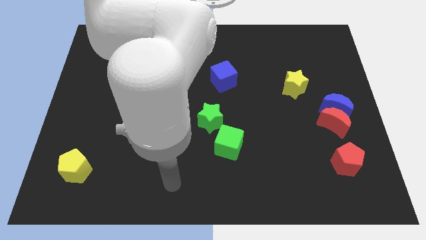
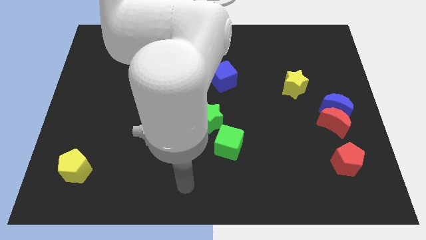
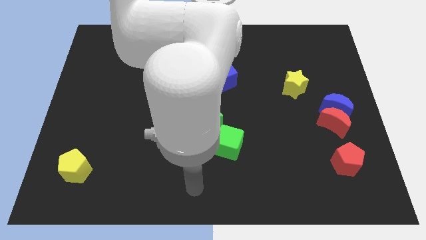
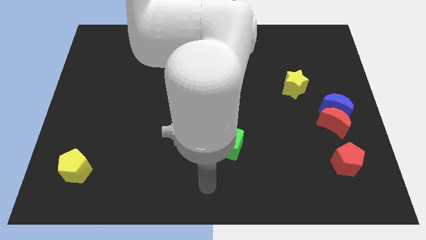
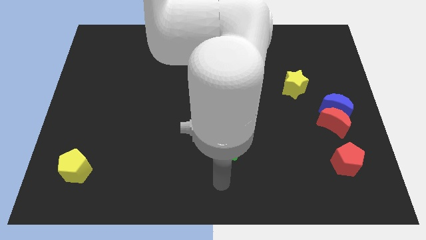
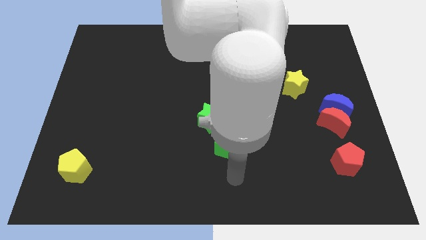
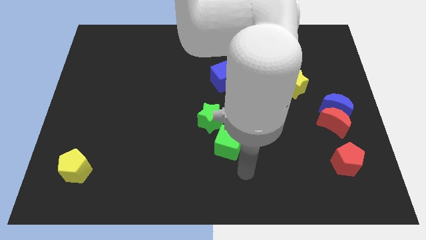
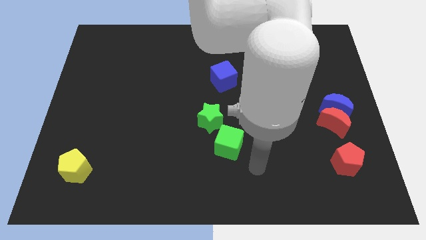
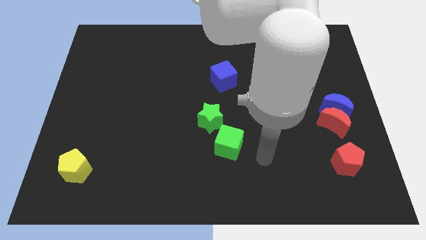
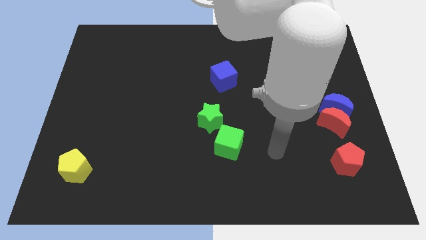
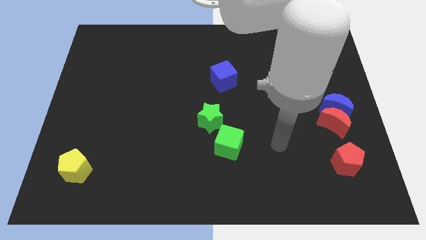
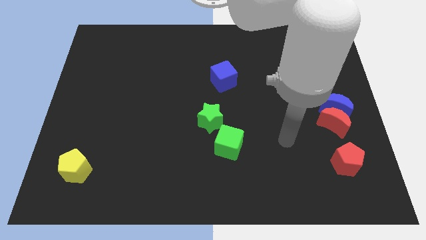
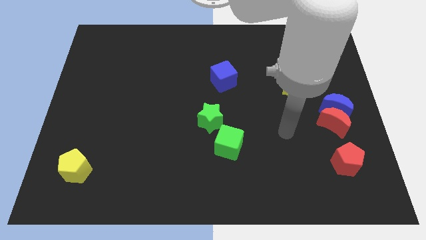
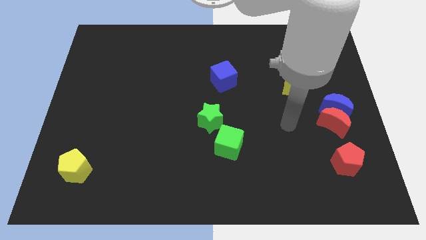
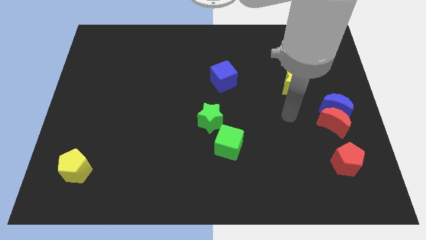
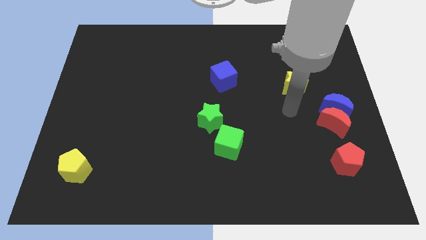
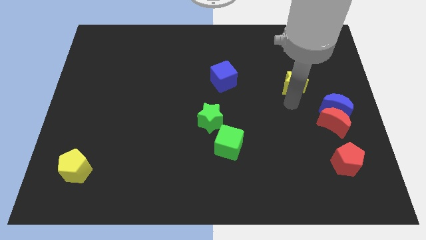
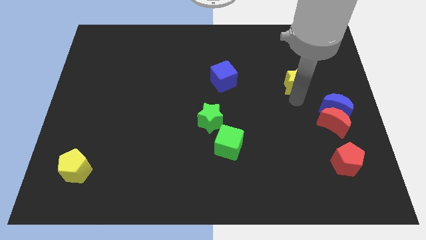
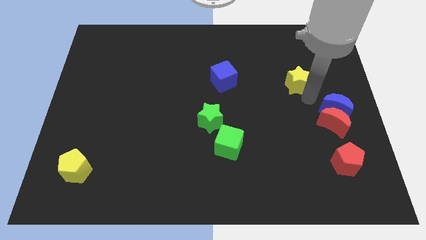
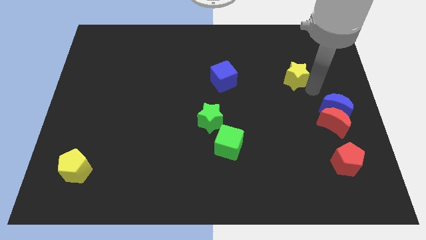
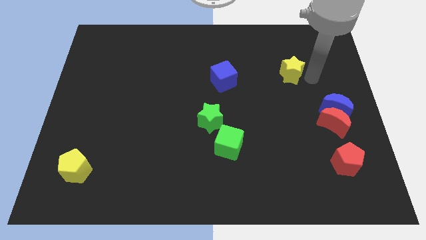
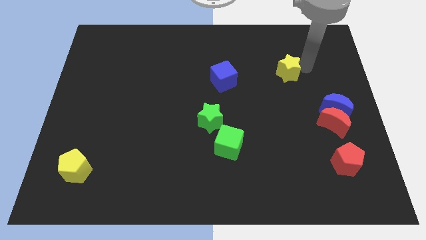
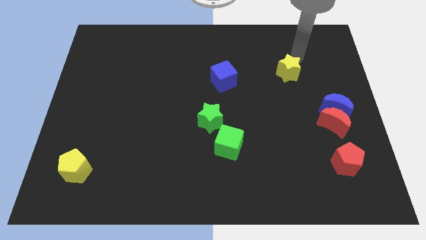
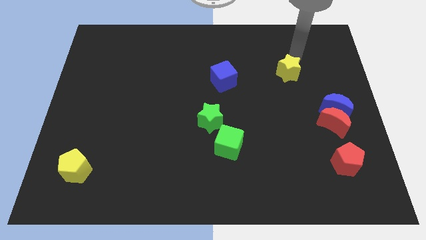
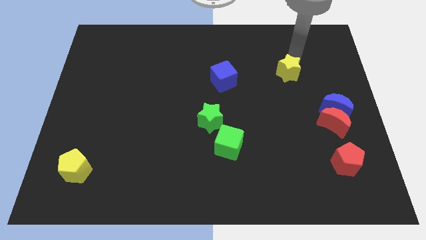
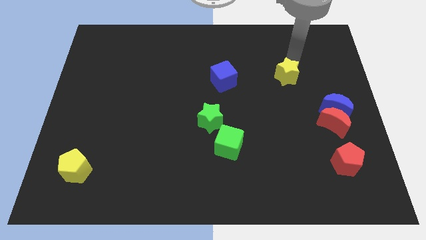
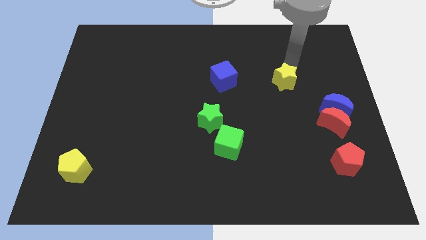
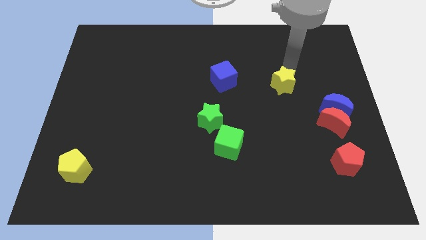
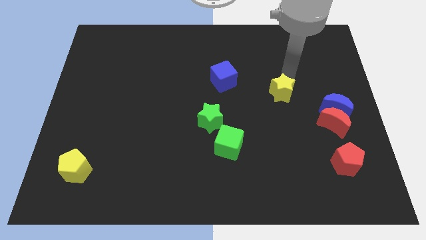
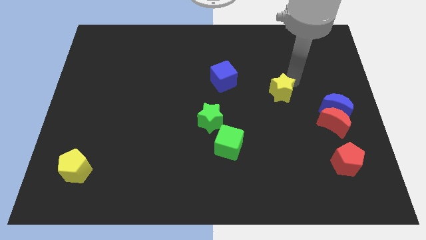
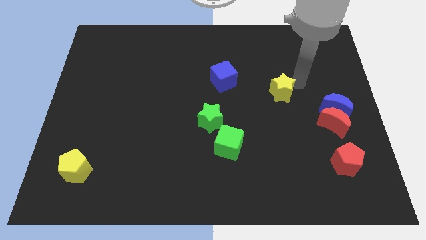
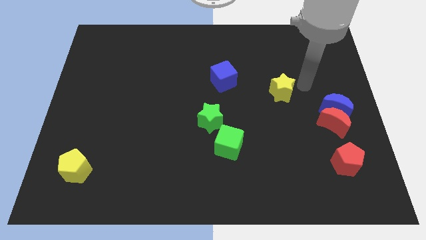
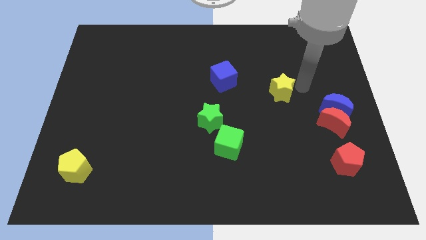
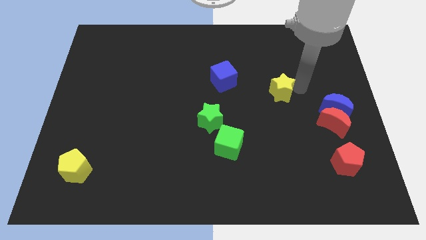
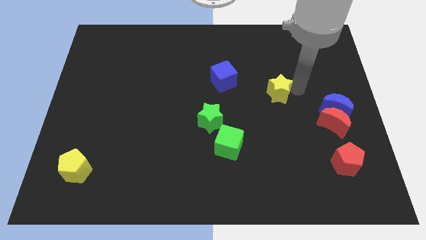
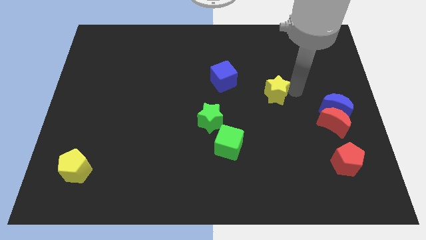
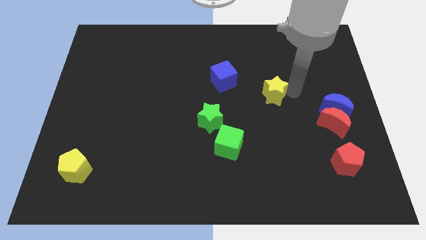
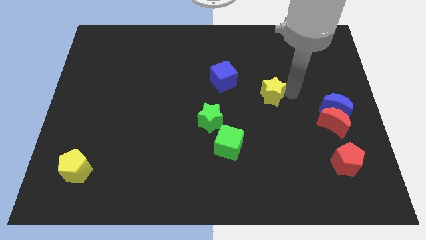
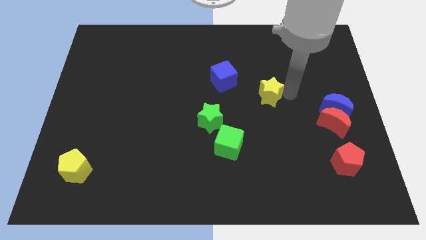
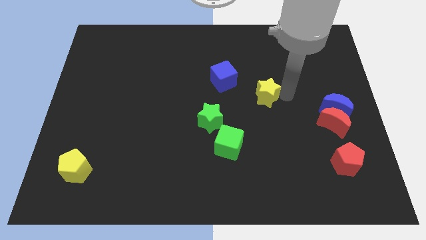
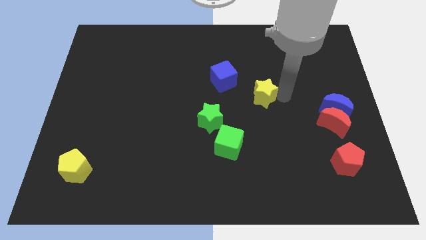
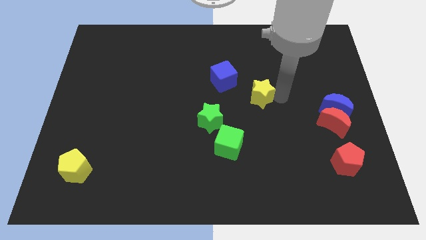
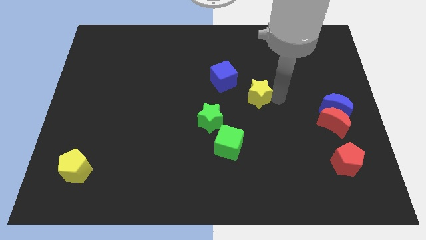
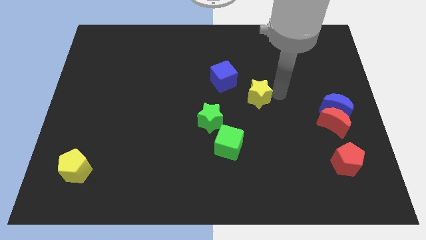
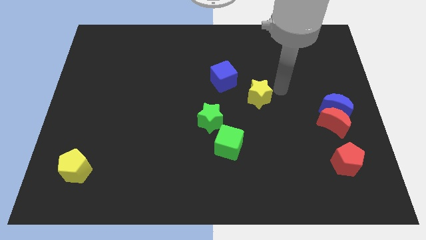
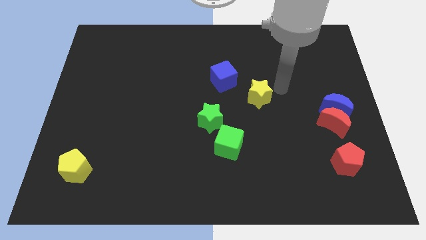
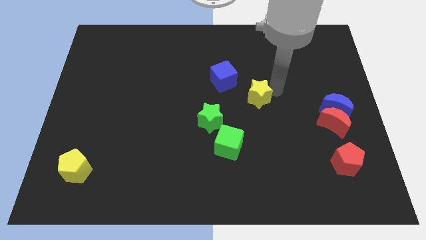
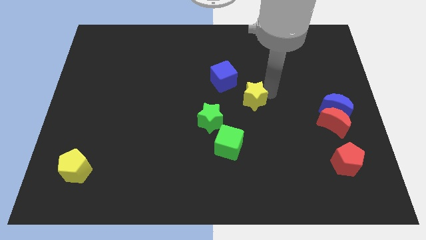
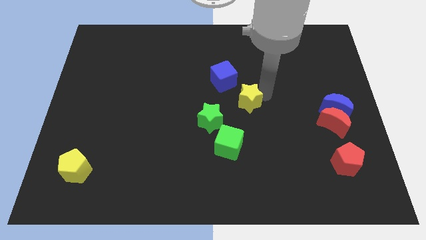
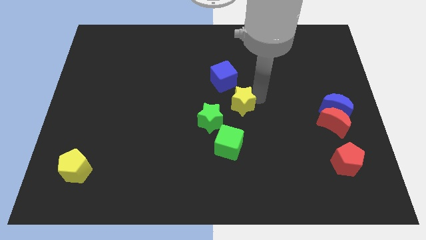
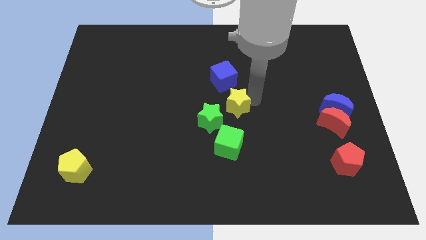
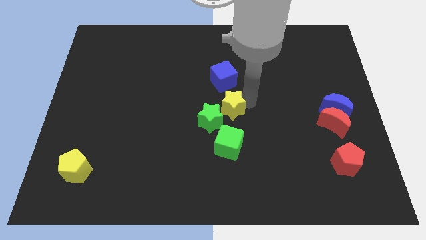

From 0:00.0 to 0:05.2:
push the yellow star close to the green star

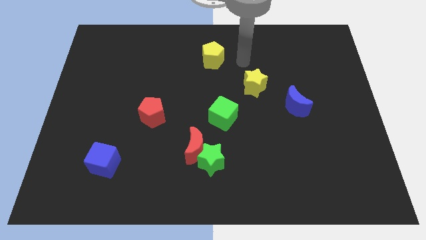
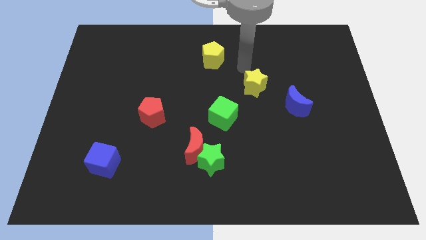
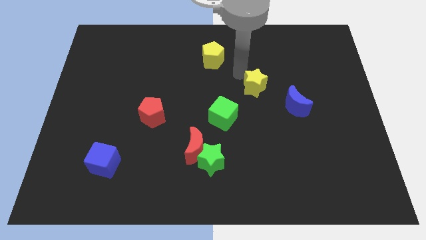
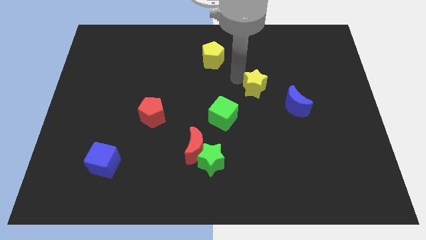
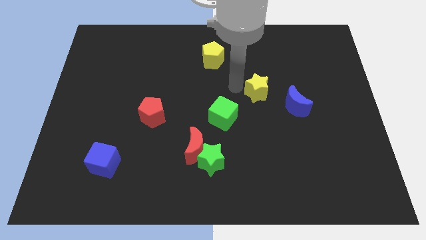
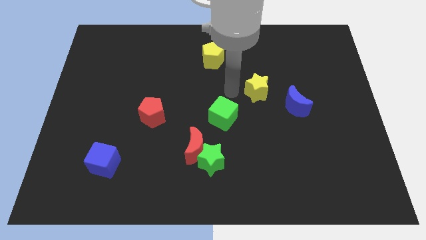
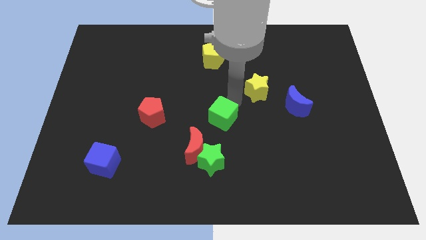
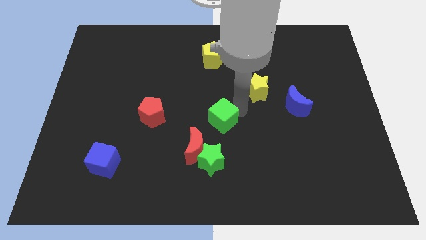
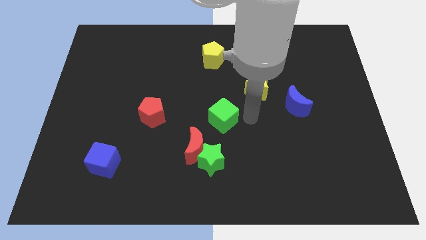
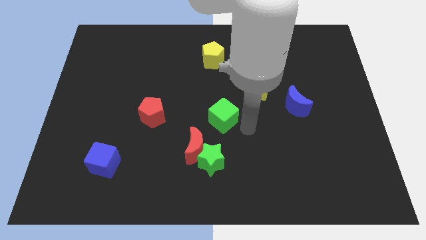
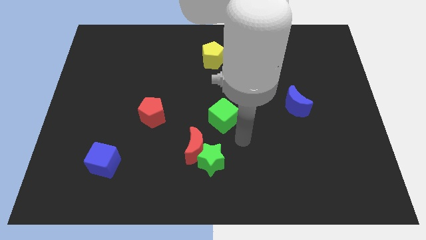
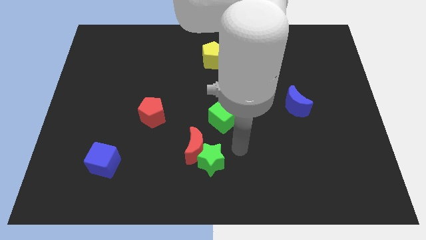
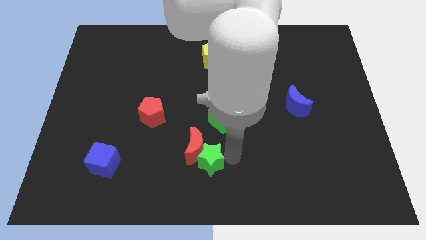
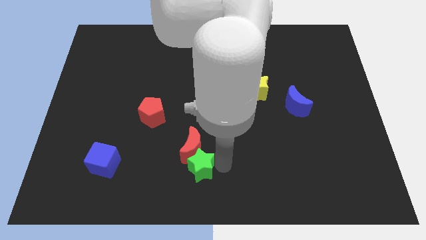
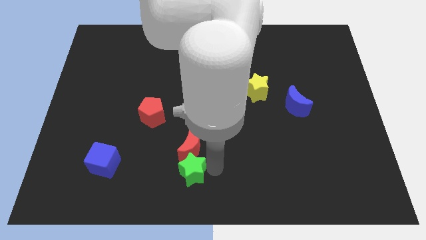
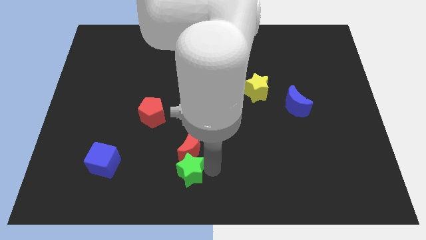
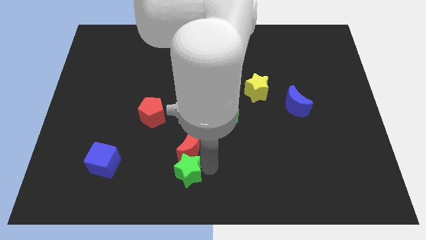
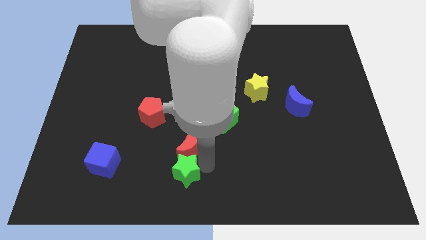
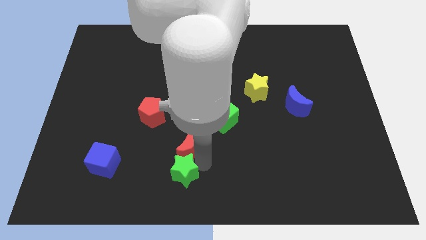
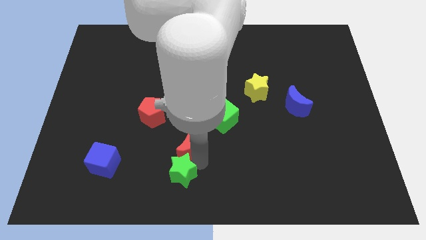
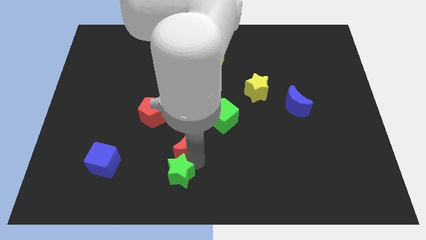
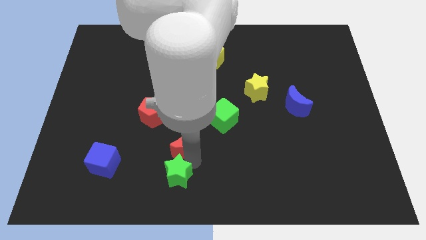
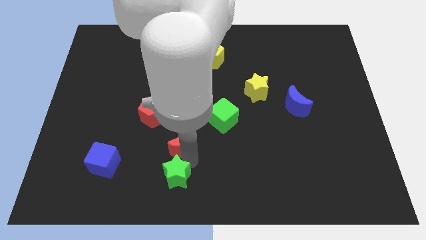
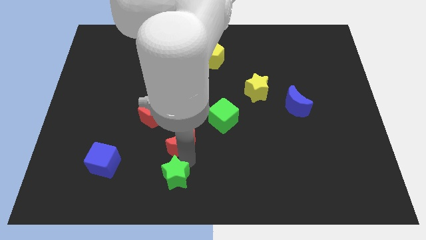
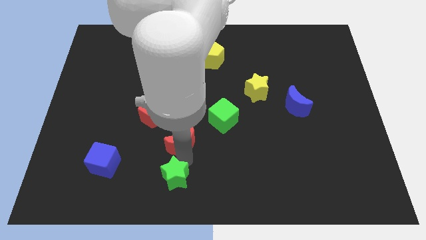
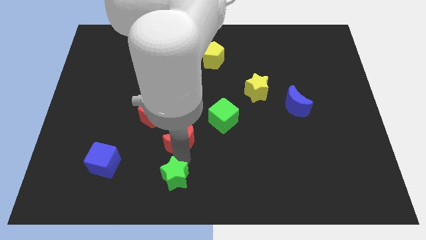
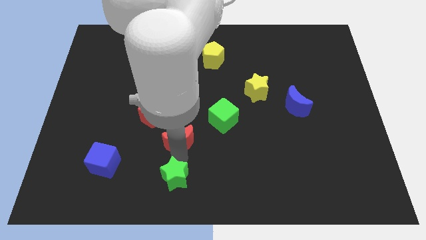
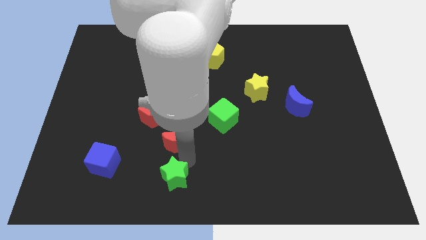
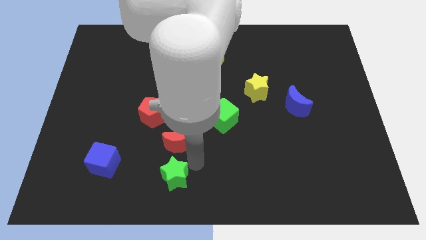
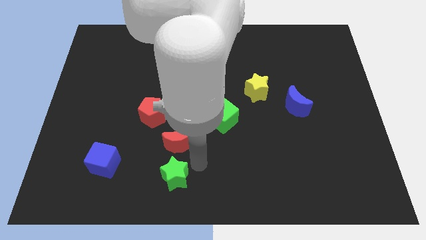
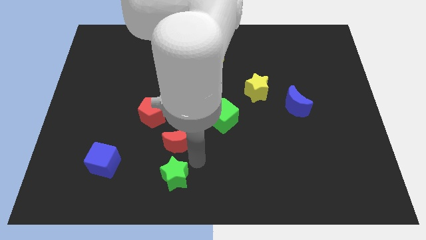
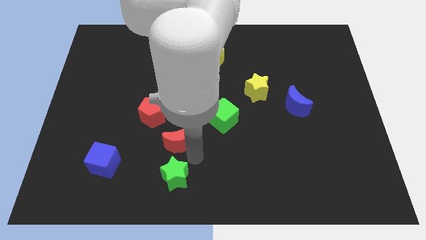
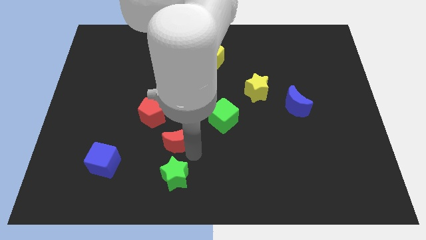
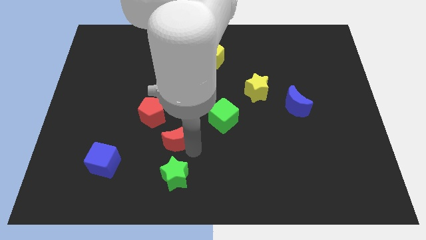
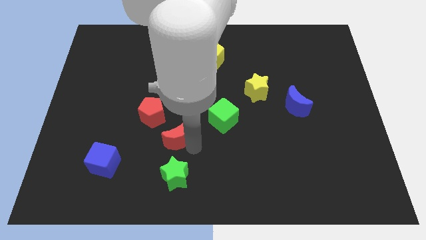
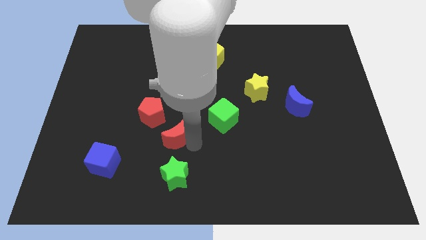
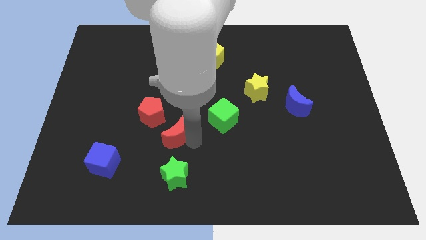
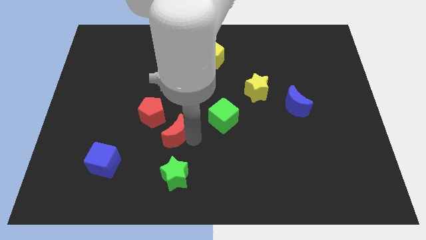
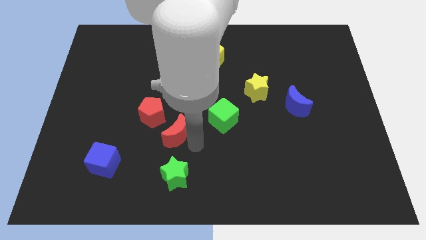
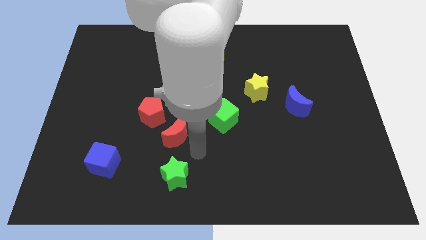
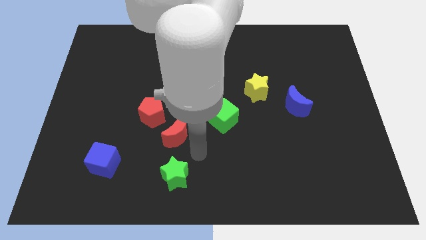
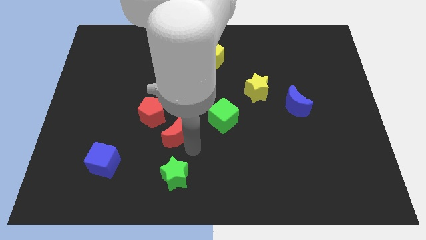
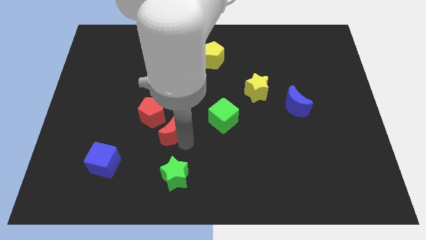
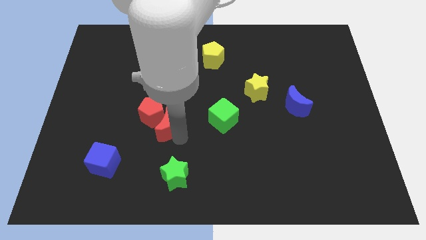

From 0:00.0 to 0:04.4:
slide the red moon towards the red pentagon
